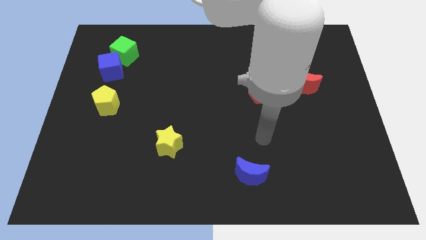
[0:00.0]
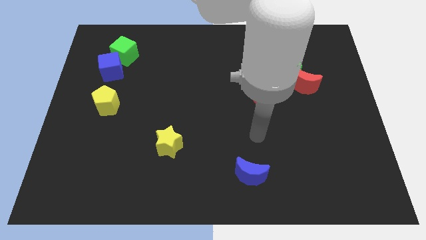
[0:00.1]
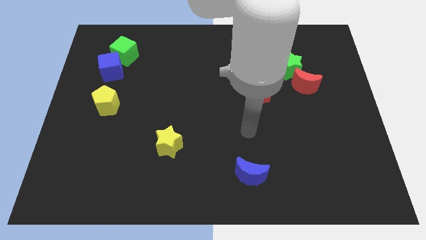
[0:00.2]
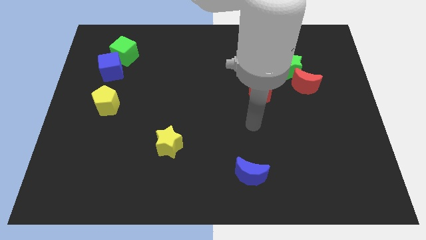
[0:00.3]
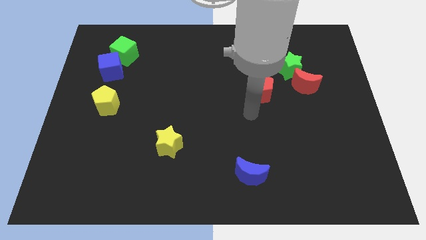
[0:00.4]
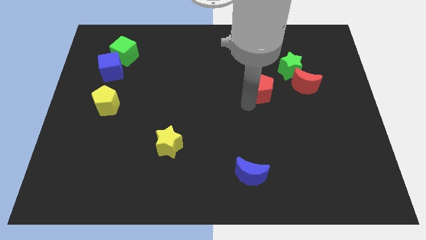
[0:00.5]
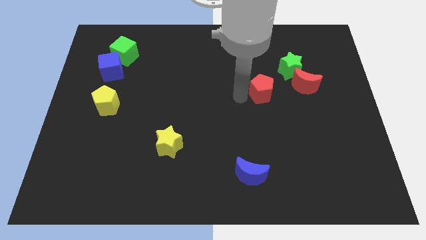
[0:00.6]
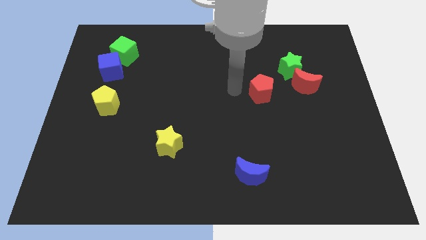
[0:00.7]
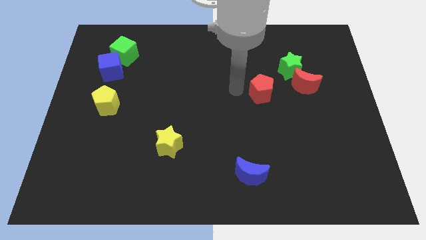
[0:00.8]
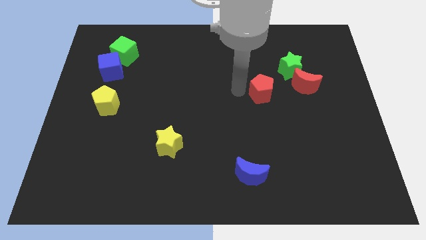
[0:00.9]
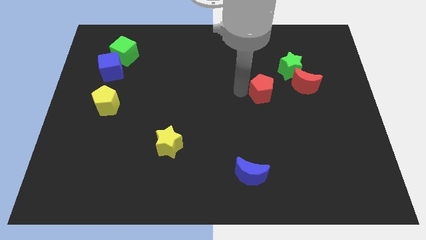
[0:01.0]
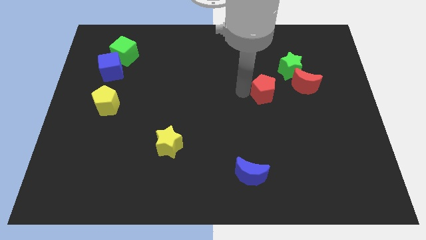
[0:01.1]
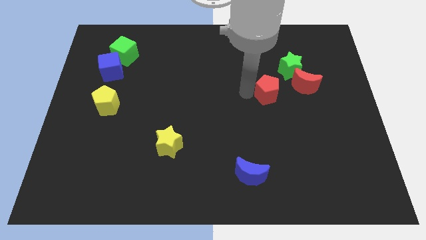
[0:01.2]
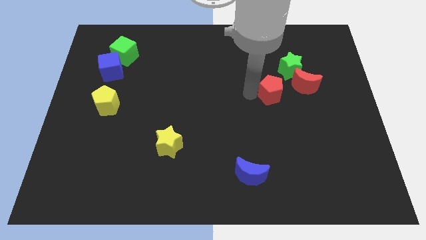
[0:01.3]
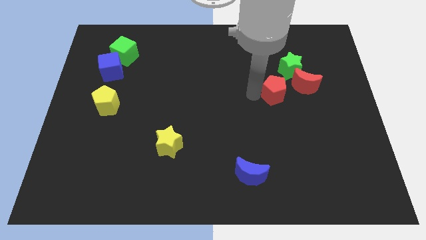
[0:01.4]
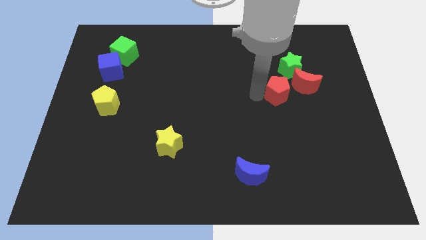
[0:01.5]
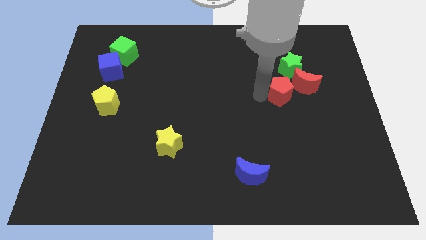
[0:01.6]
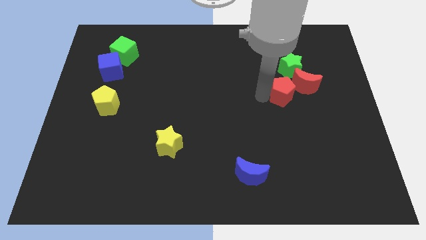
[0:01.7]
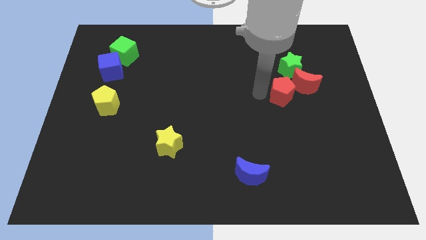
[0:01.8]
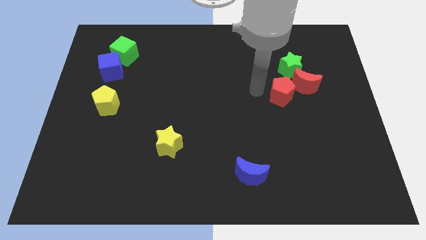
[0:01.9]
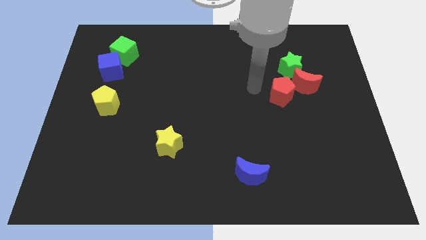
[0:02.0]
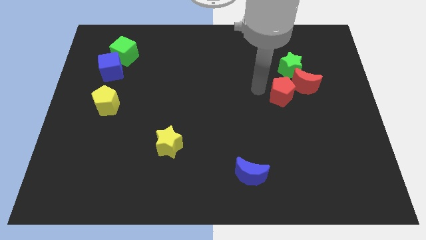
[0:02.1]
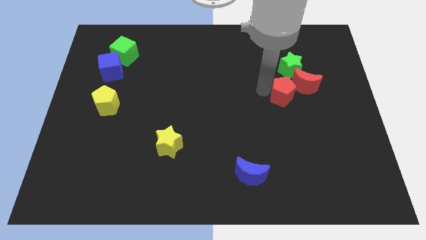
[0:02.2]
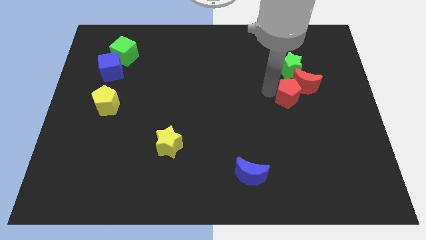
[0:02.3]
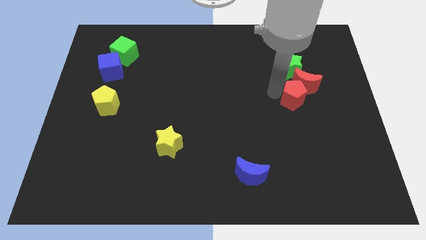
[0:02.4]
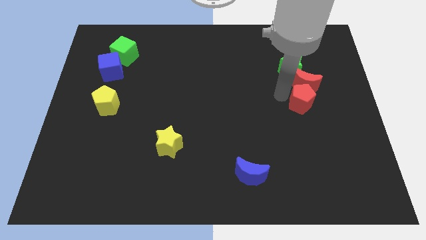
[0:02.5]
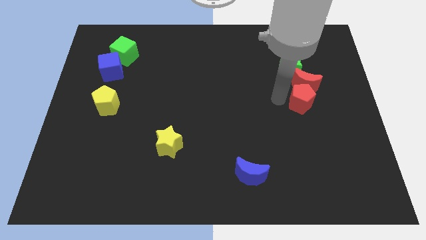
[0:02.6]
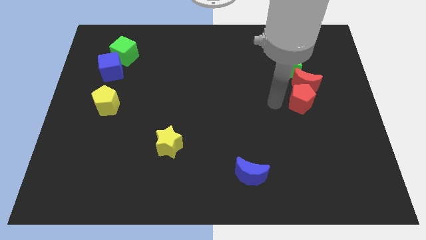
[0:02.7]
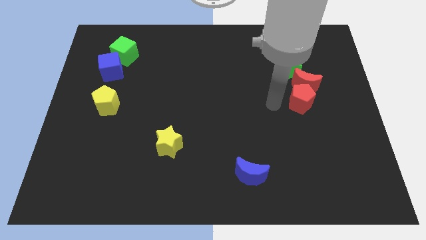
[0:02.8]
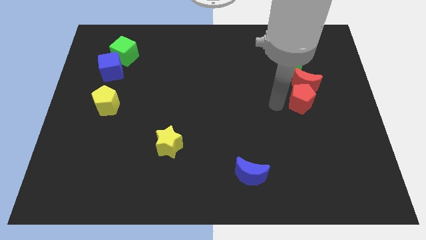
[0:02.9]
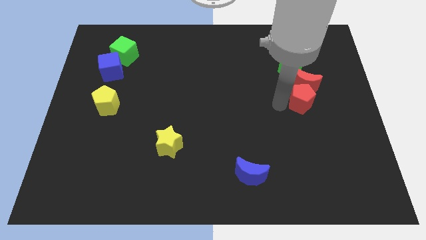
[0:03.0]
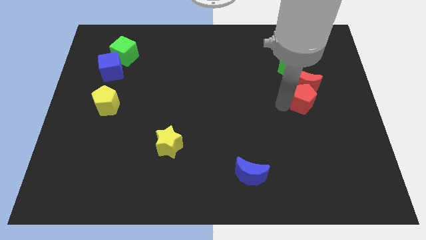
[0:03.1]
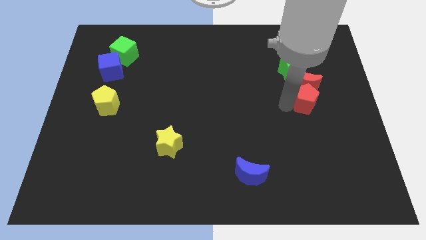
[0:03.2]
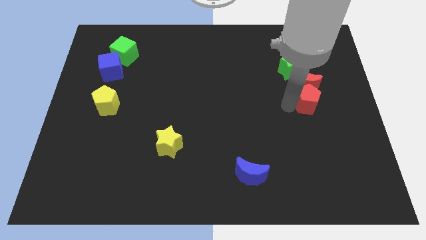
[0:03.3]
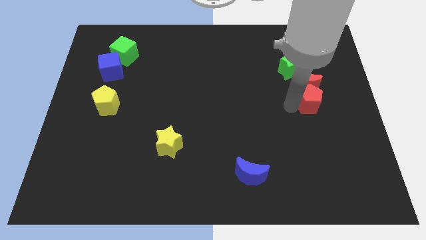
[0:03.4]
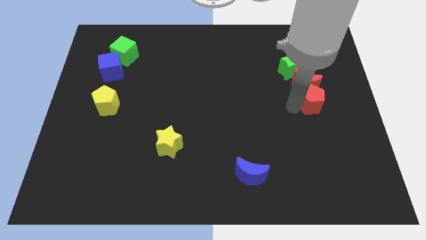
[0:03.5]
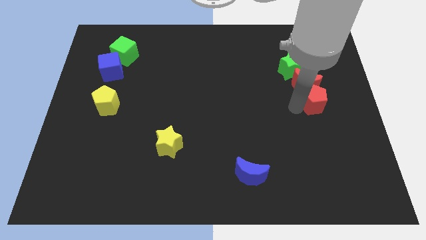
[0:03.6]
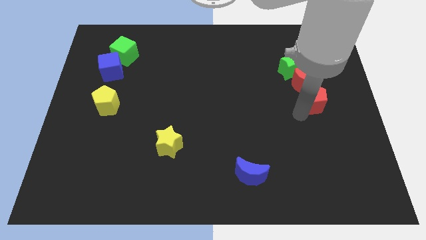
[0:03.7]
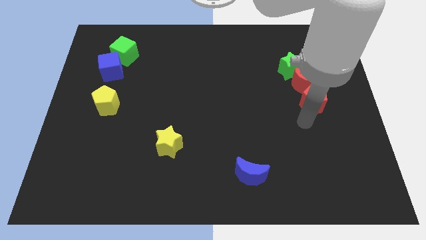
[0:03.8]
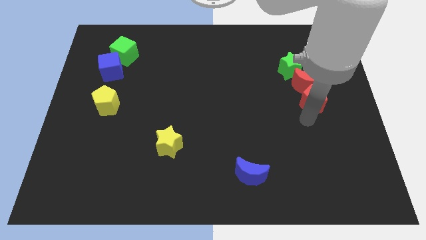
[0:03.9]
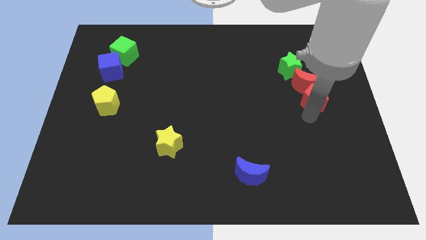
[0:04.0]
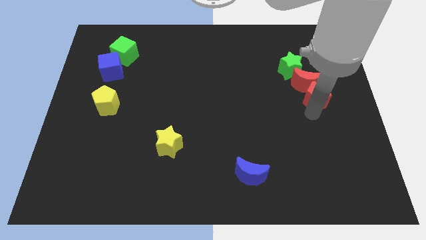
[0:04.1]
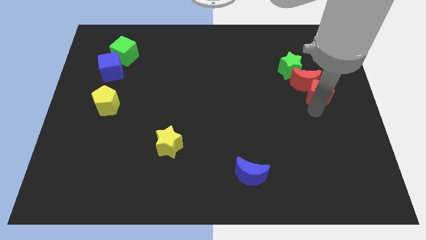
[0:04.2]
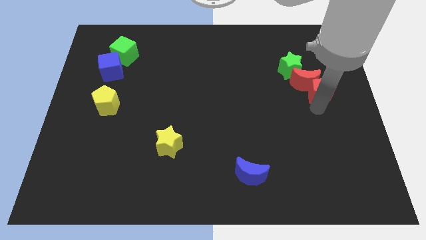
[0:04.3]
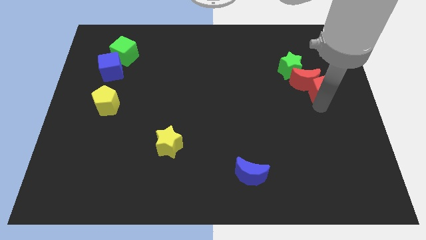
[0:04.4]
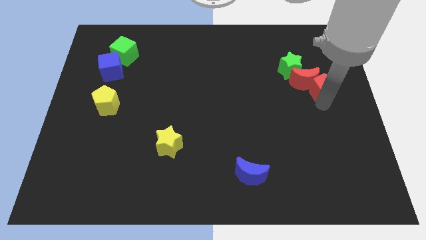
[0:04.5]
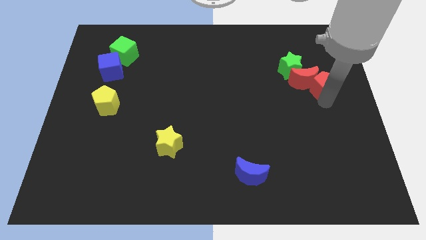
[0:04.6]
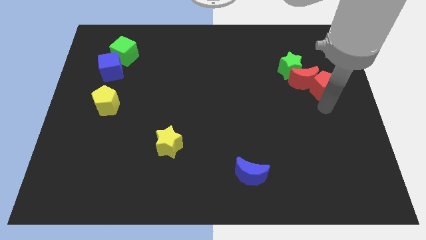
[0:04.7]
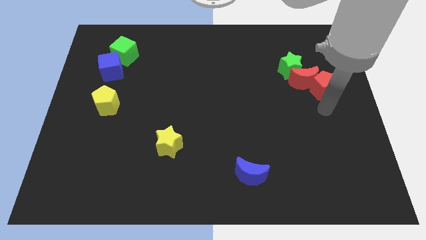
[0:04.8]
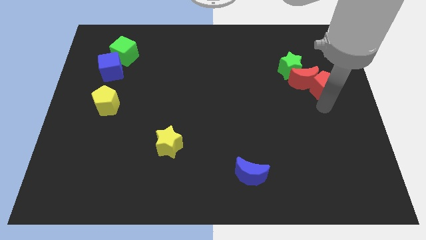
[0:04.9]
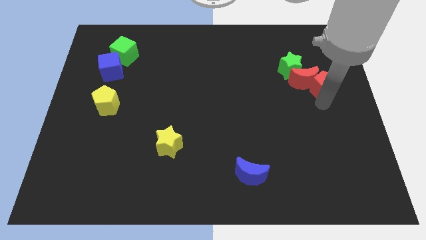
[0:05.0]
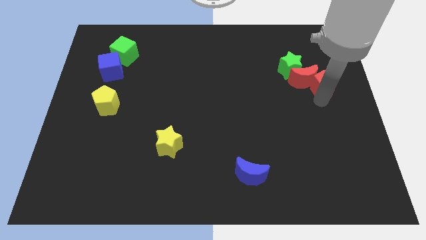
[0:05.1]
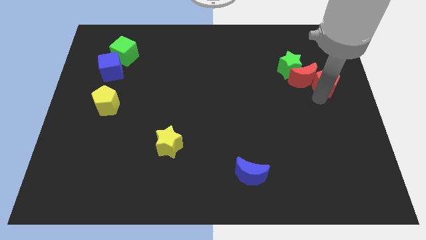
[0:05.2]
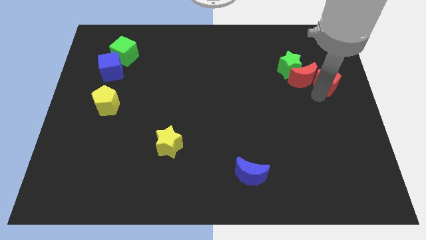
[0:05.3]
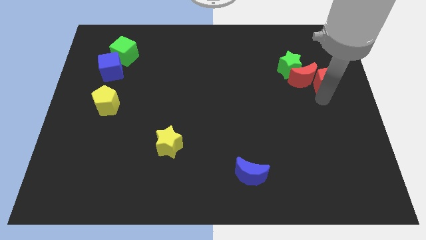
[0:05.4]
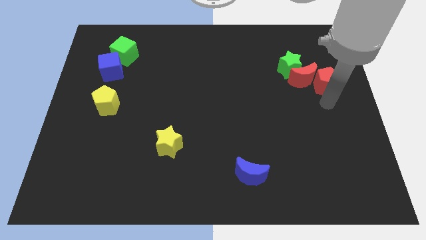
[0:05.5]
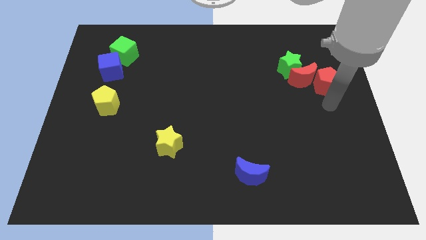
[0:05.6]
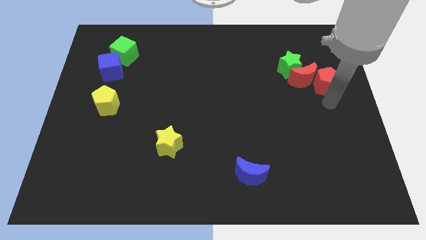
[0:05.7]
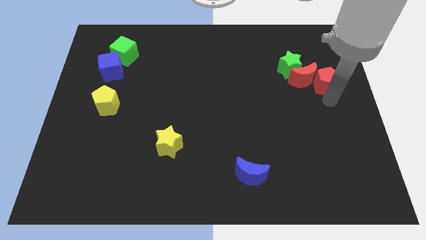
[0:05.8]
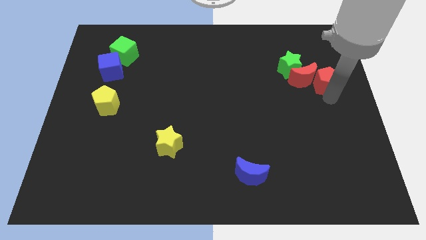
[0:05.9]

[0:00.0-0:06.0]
put the red pentagon to the top right side of the red moon

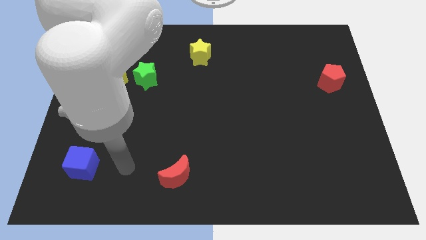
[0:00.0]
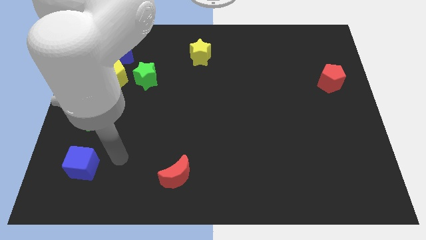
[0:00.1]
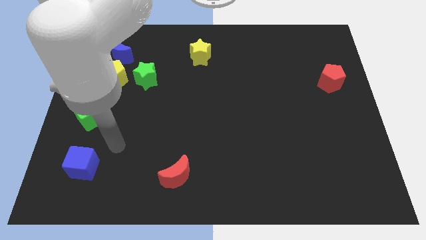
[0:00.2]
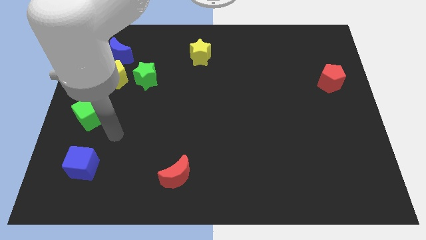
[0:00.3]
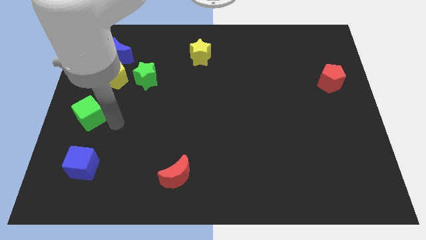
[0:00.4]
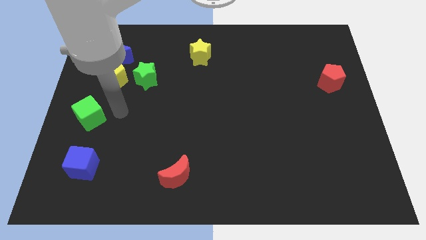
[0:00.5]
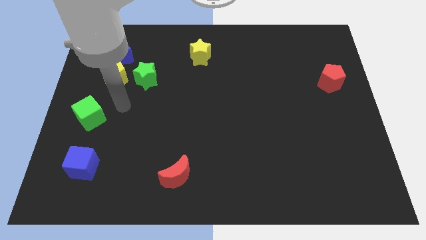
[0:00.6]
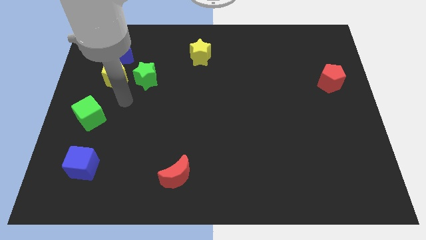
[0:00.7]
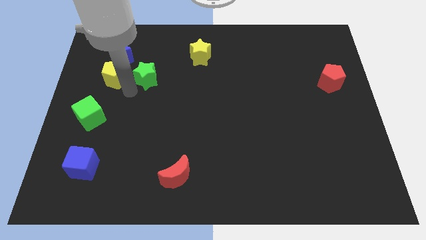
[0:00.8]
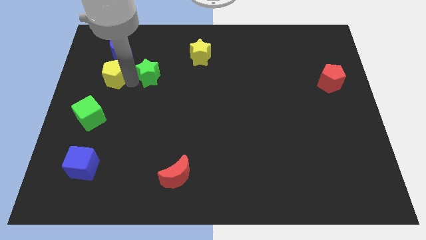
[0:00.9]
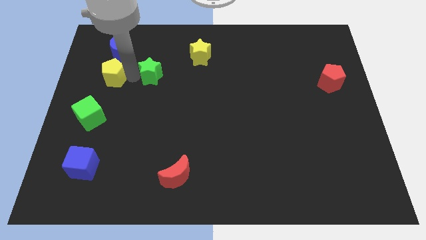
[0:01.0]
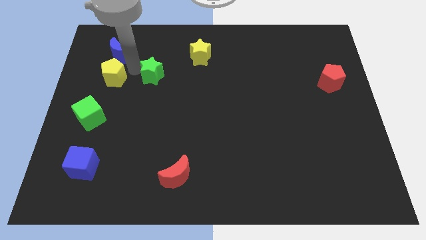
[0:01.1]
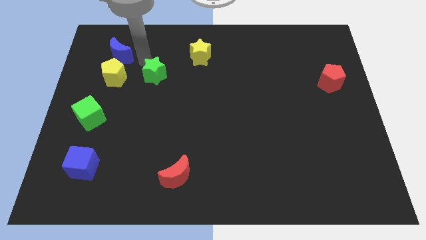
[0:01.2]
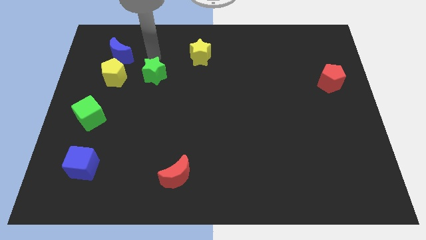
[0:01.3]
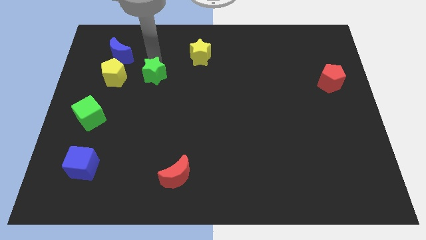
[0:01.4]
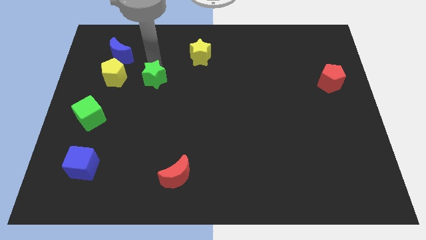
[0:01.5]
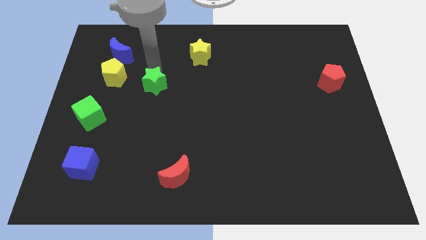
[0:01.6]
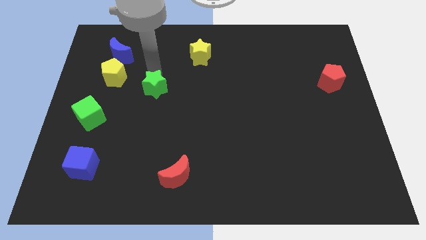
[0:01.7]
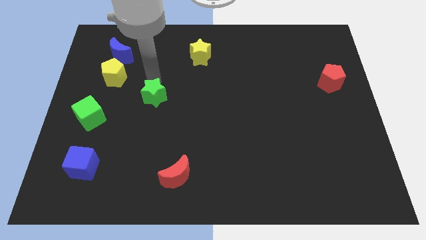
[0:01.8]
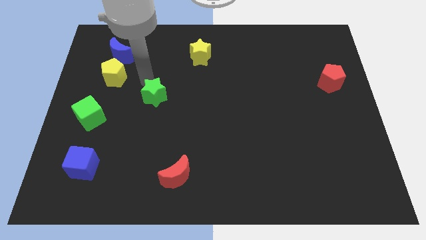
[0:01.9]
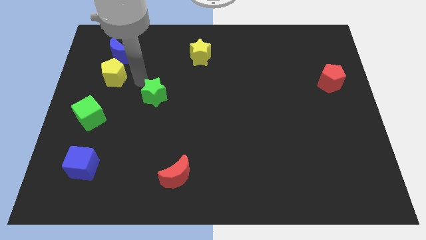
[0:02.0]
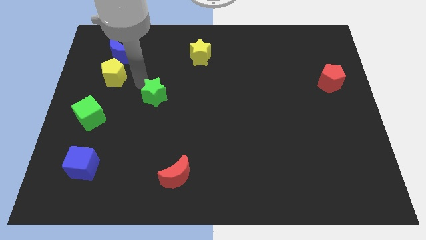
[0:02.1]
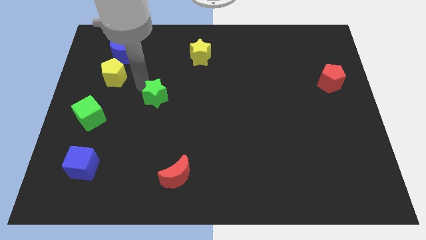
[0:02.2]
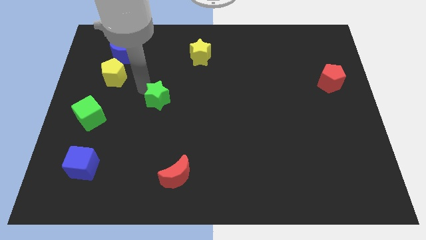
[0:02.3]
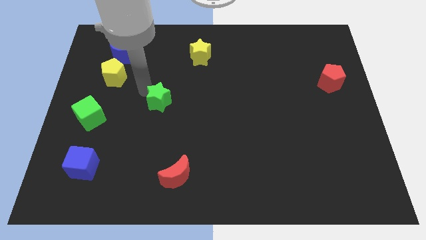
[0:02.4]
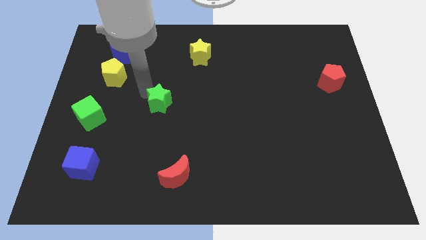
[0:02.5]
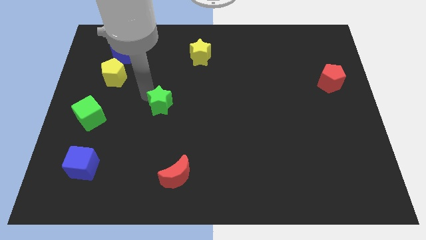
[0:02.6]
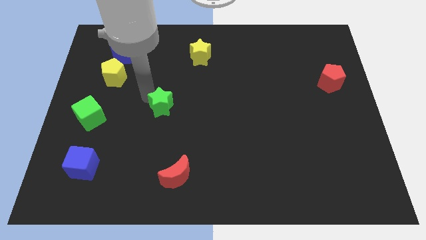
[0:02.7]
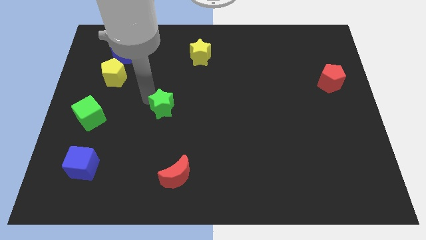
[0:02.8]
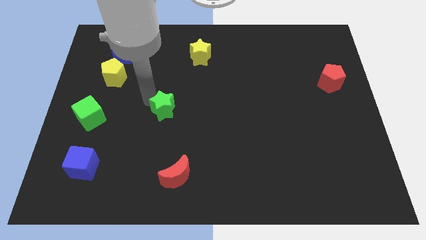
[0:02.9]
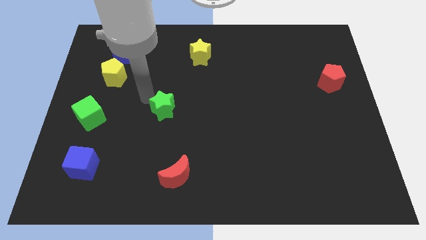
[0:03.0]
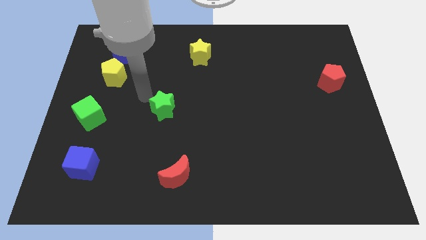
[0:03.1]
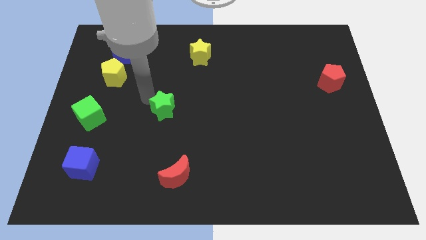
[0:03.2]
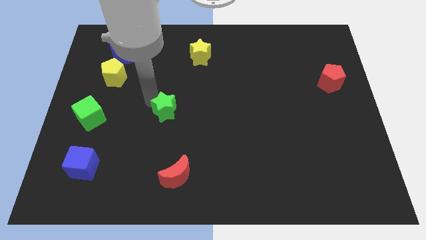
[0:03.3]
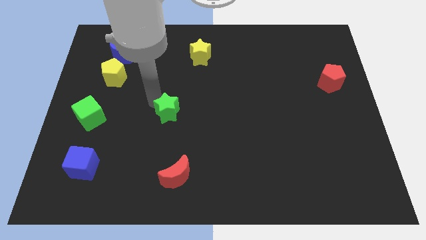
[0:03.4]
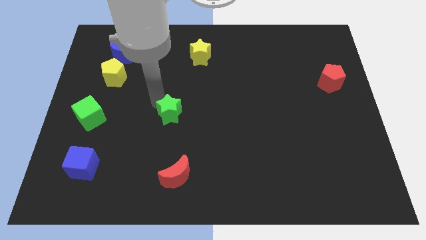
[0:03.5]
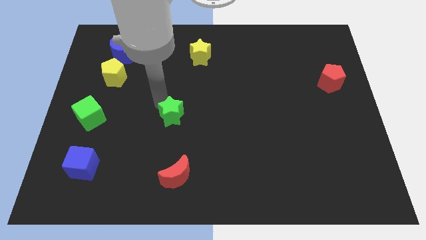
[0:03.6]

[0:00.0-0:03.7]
put the green star above the red moon
